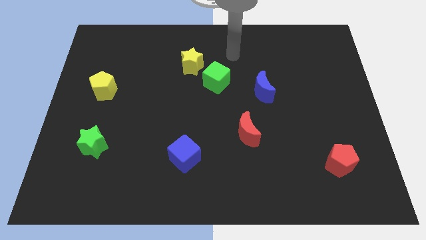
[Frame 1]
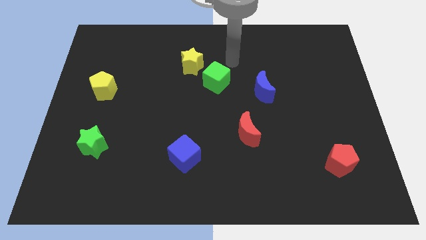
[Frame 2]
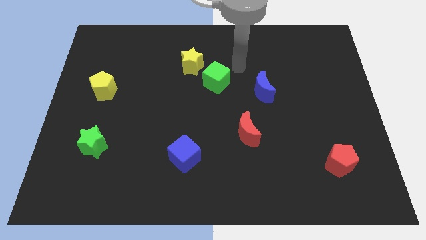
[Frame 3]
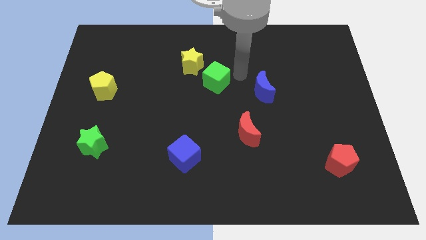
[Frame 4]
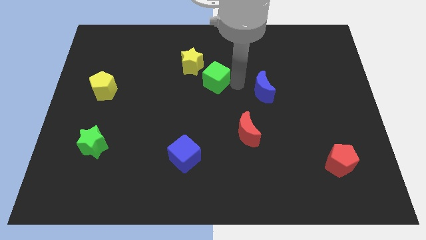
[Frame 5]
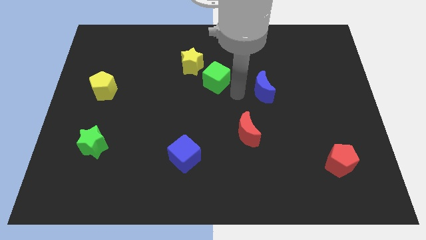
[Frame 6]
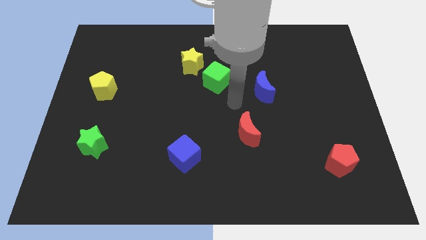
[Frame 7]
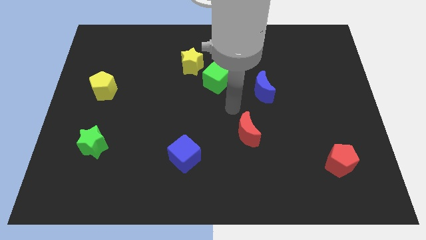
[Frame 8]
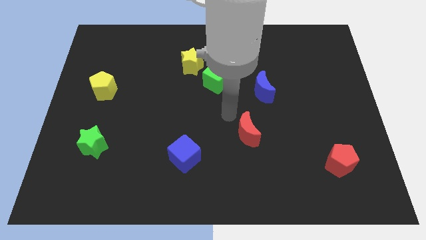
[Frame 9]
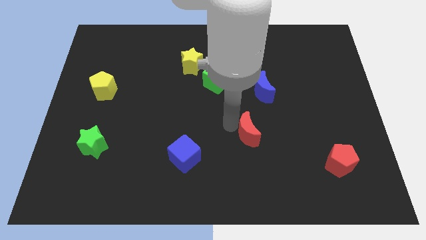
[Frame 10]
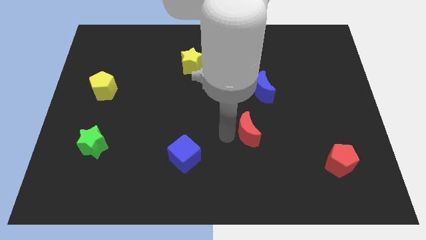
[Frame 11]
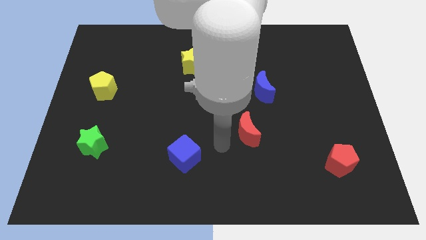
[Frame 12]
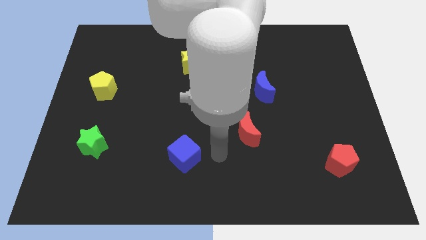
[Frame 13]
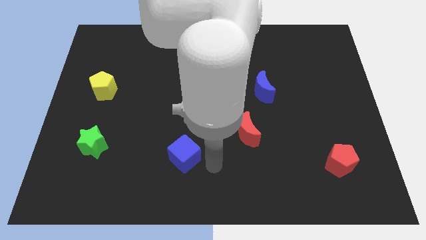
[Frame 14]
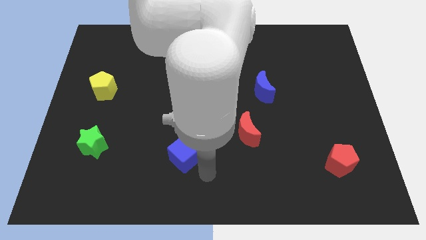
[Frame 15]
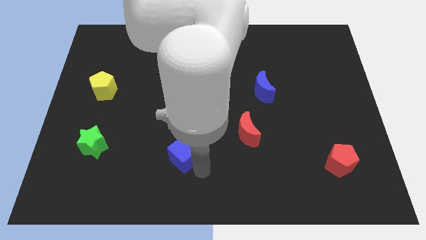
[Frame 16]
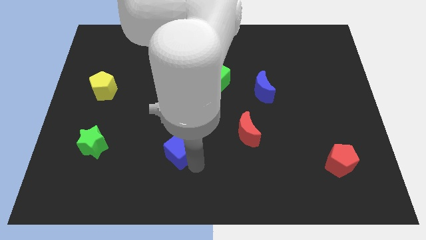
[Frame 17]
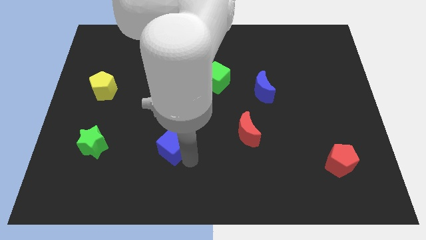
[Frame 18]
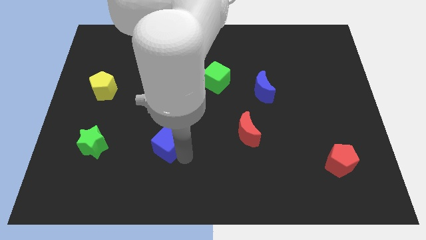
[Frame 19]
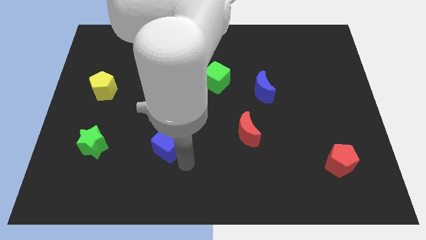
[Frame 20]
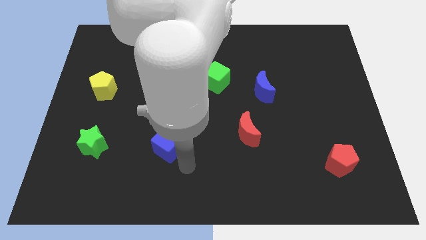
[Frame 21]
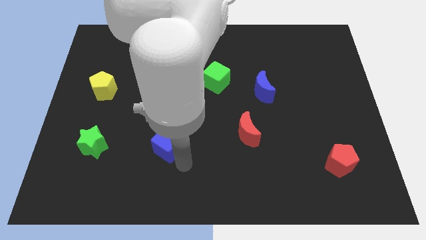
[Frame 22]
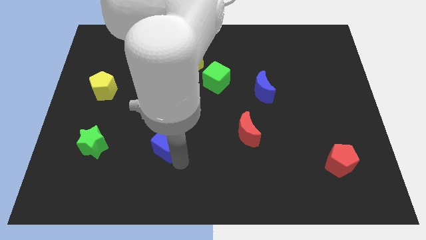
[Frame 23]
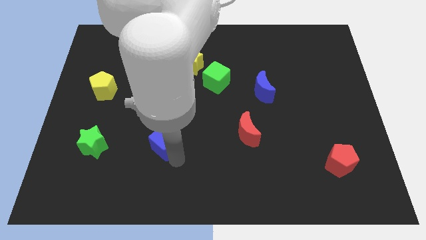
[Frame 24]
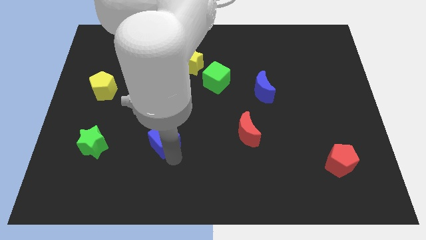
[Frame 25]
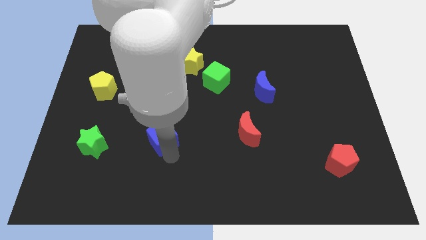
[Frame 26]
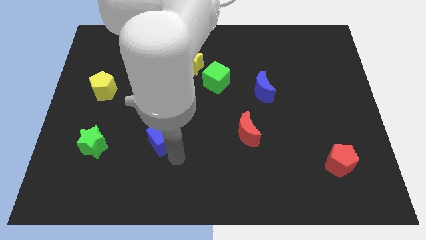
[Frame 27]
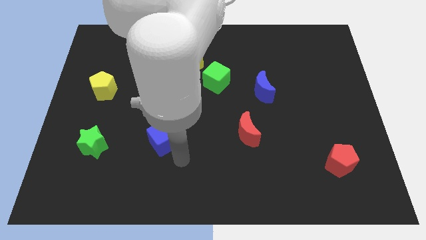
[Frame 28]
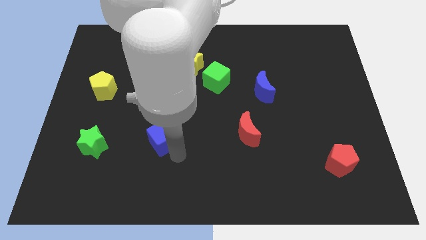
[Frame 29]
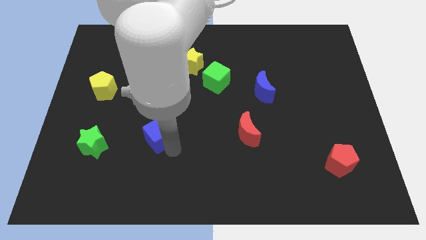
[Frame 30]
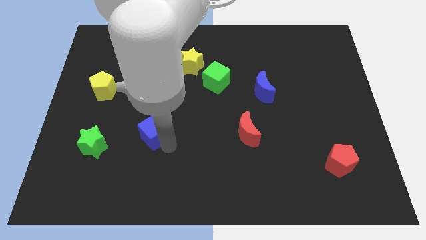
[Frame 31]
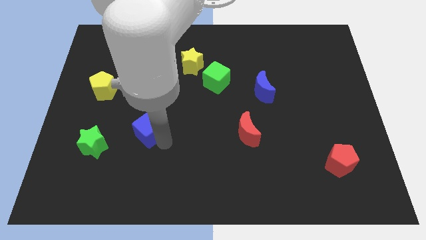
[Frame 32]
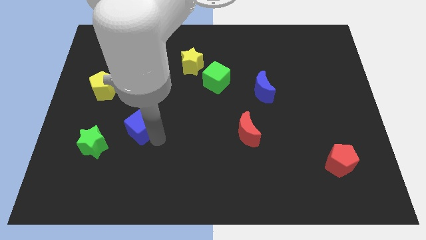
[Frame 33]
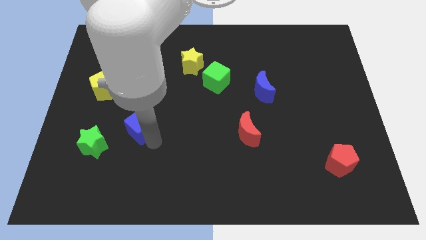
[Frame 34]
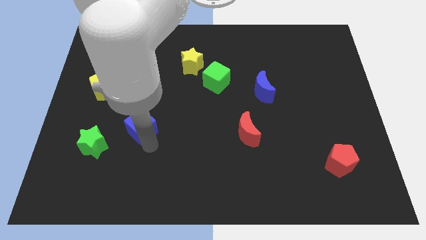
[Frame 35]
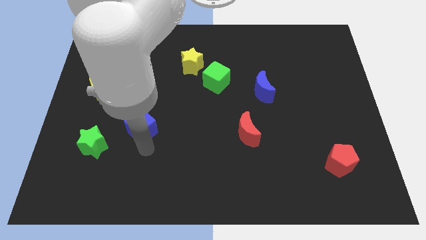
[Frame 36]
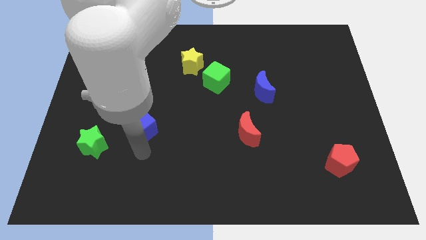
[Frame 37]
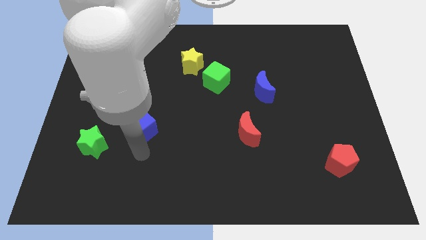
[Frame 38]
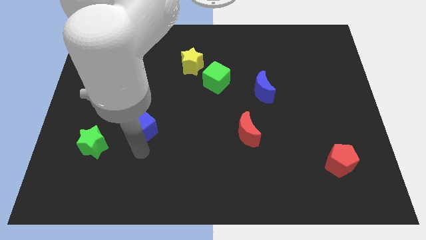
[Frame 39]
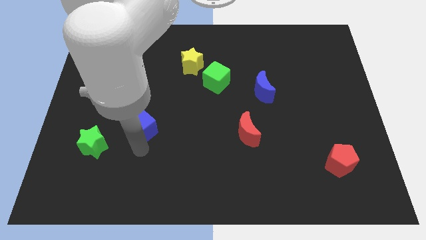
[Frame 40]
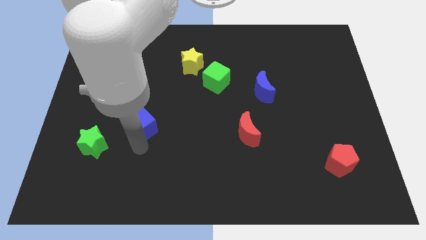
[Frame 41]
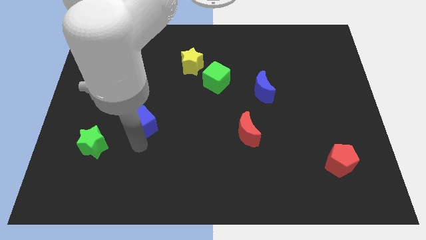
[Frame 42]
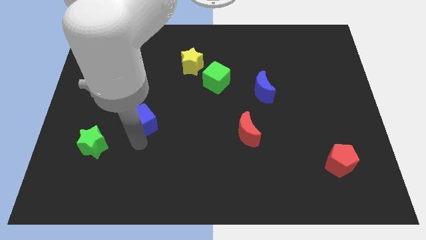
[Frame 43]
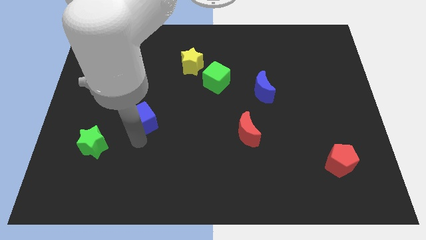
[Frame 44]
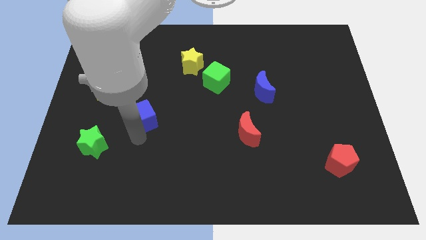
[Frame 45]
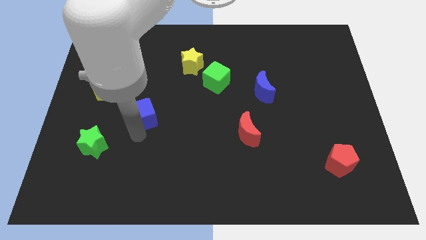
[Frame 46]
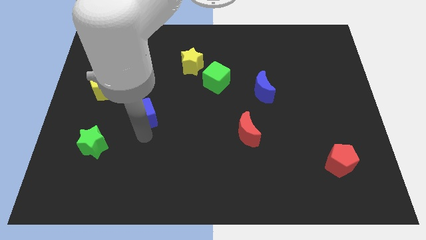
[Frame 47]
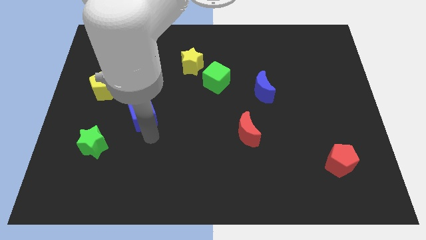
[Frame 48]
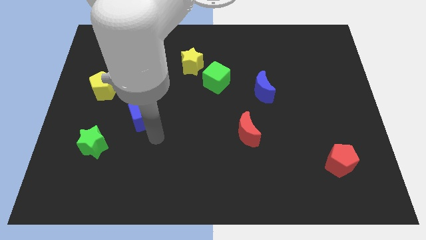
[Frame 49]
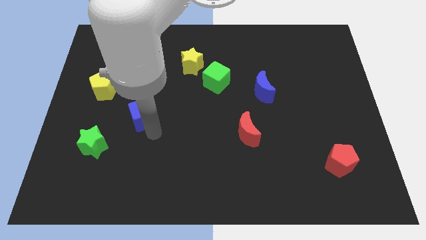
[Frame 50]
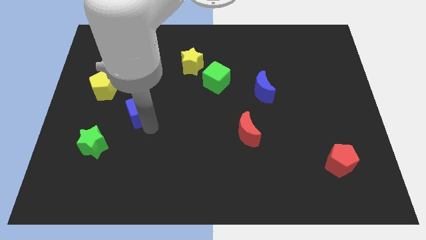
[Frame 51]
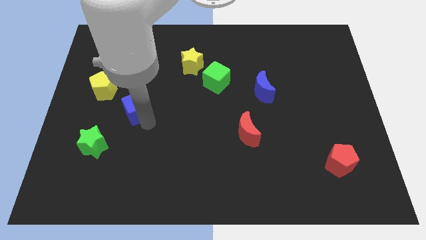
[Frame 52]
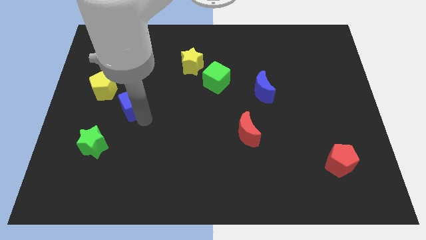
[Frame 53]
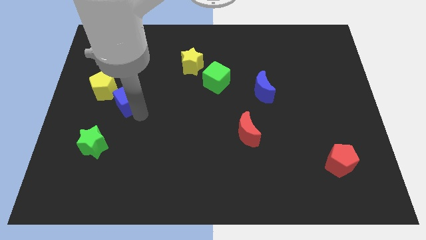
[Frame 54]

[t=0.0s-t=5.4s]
slide the blue cube diagonally upwards and to the left

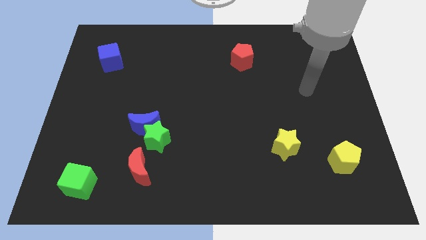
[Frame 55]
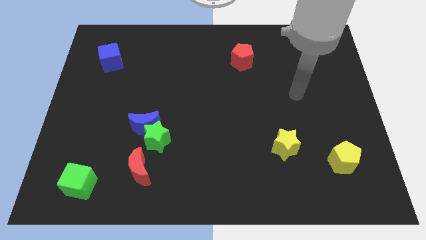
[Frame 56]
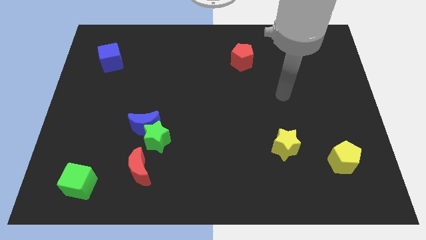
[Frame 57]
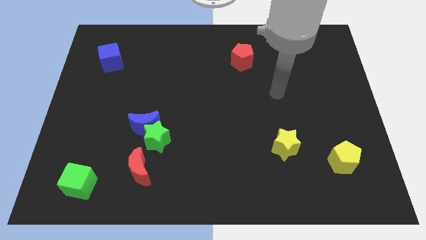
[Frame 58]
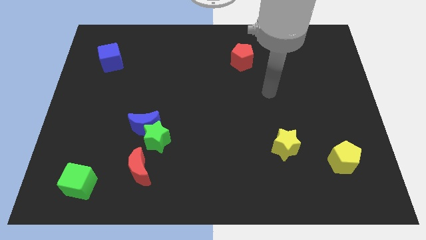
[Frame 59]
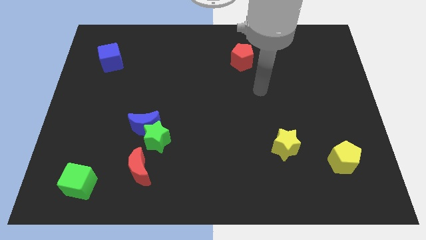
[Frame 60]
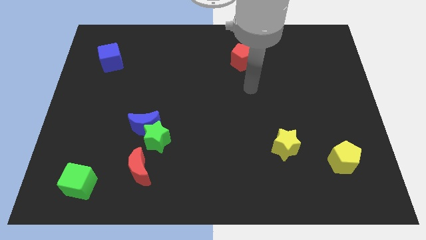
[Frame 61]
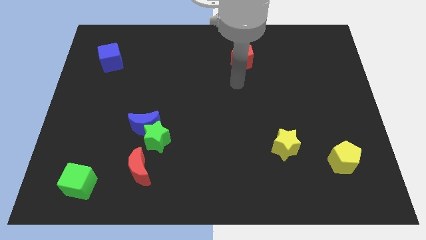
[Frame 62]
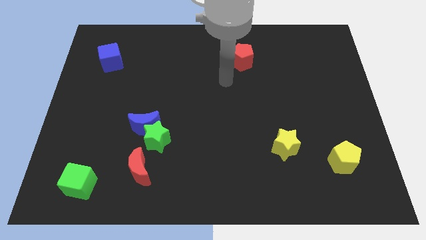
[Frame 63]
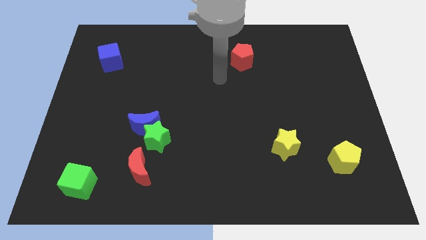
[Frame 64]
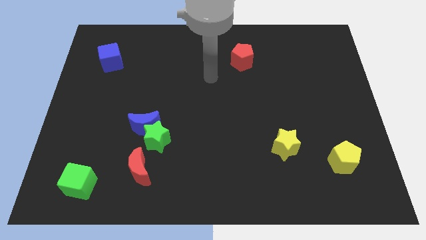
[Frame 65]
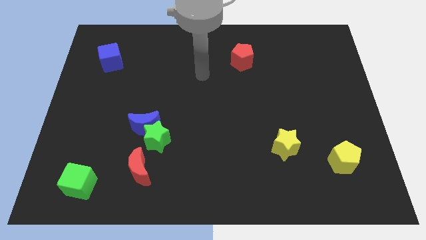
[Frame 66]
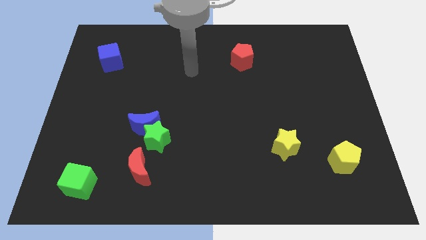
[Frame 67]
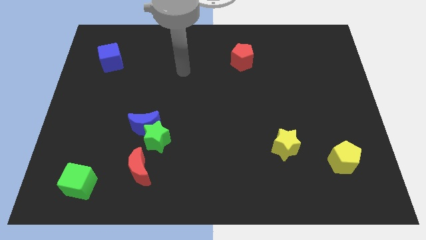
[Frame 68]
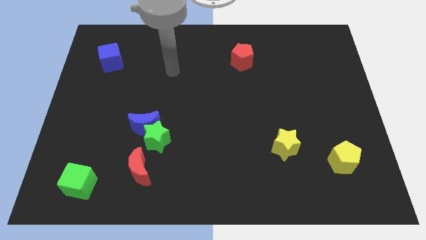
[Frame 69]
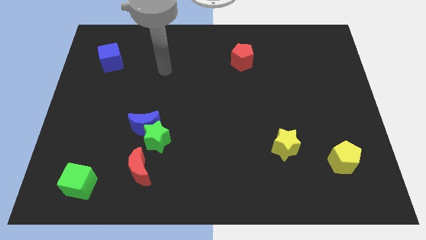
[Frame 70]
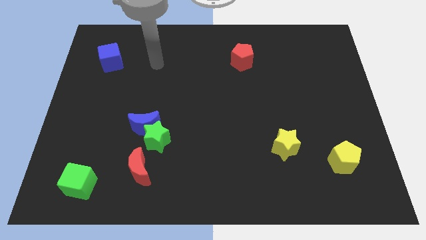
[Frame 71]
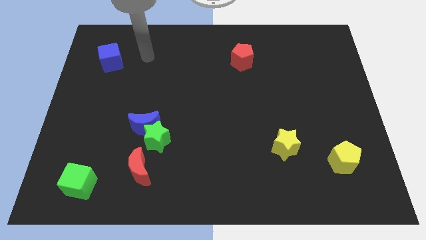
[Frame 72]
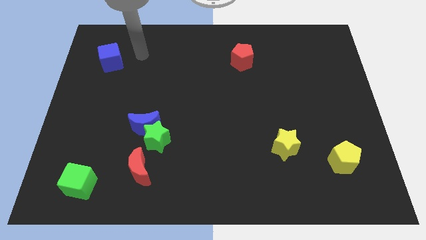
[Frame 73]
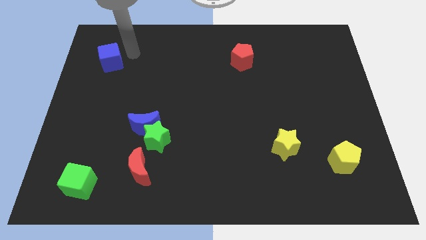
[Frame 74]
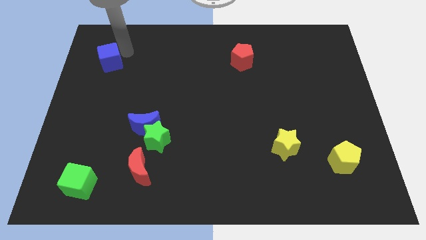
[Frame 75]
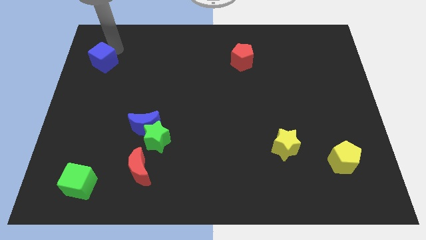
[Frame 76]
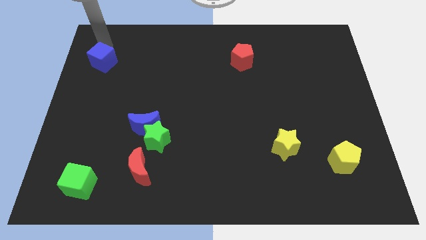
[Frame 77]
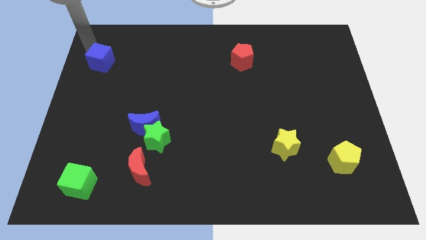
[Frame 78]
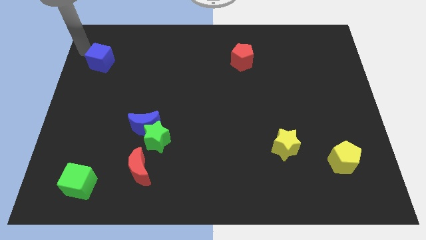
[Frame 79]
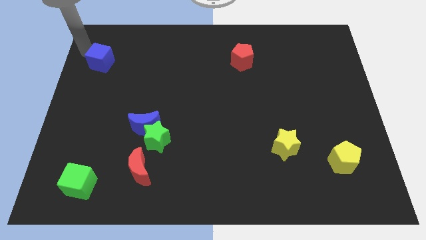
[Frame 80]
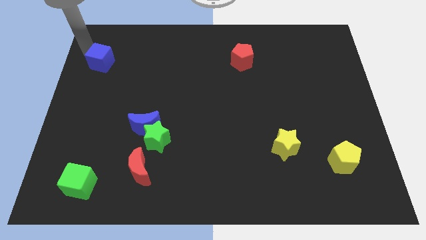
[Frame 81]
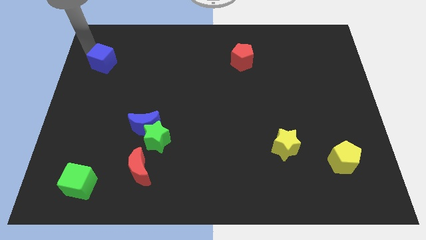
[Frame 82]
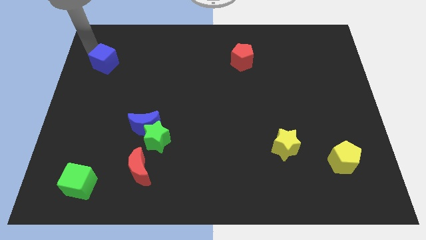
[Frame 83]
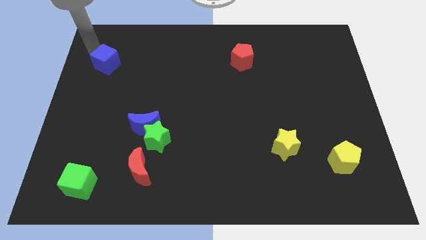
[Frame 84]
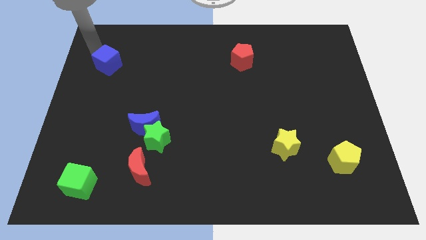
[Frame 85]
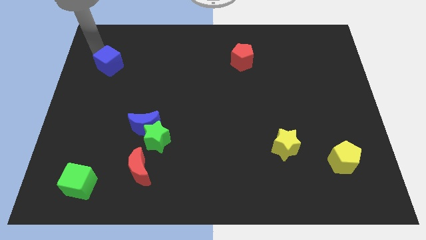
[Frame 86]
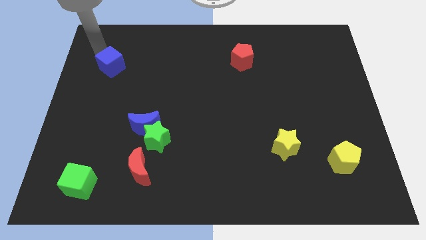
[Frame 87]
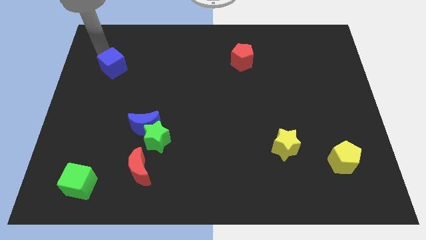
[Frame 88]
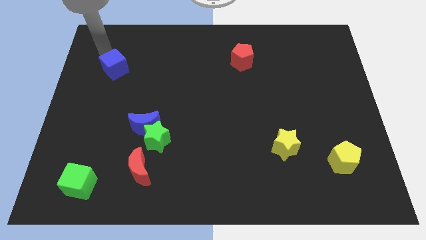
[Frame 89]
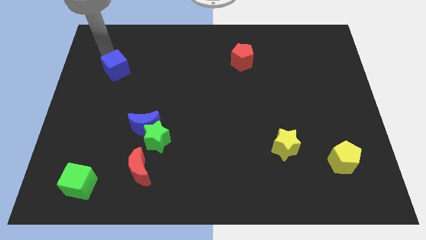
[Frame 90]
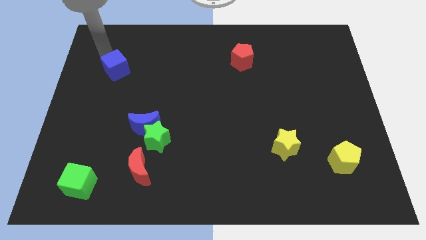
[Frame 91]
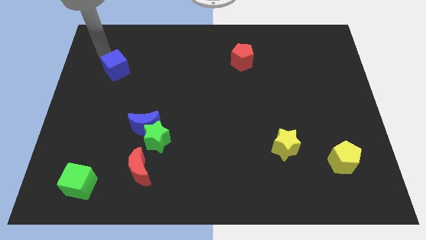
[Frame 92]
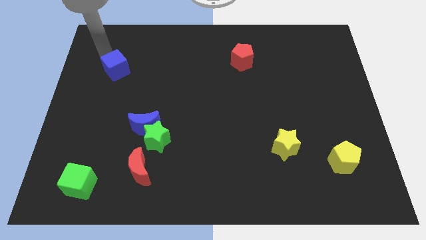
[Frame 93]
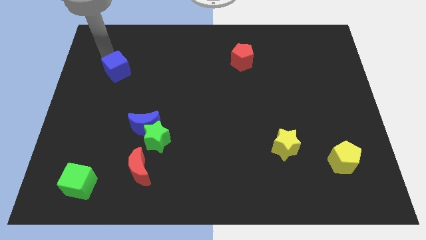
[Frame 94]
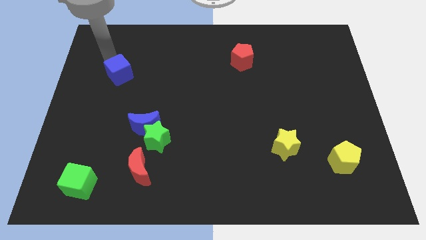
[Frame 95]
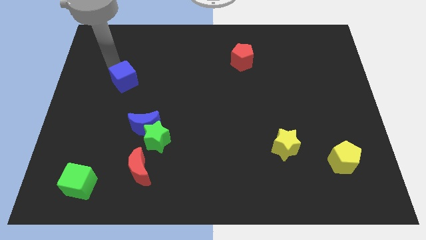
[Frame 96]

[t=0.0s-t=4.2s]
push the blue cube a bit diagonally down and to the right
